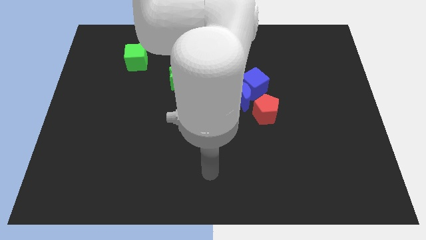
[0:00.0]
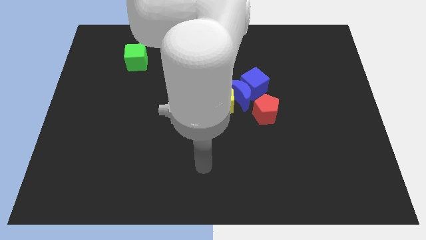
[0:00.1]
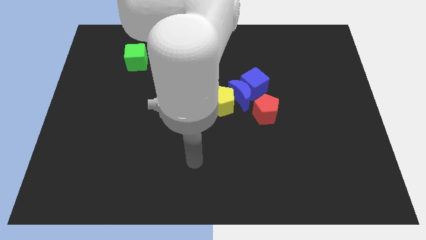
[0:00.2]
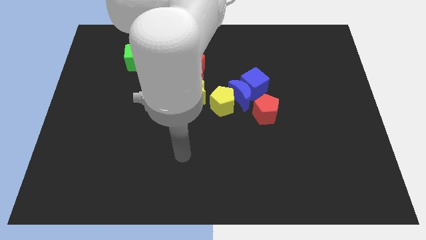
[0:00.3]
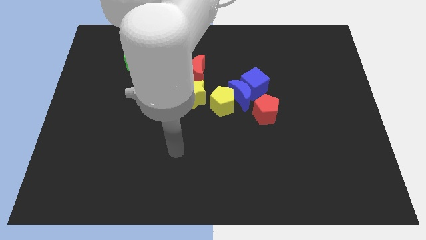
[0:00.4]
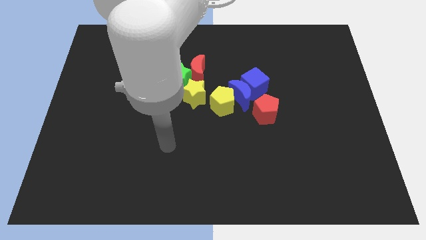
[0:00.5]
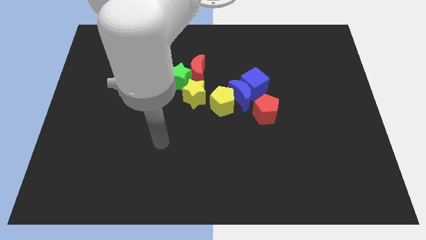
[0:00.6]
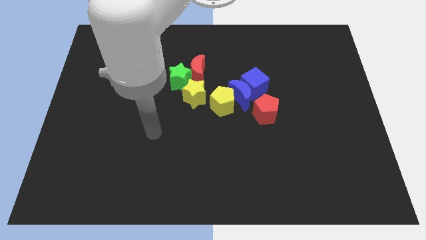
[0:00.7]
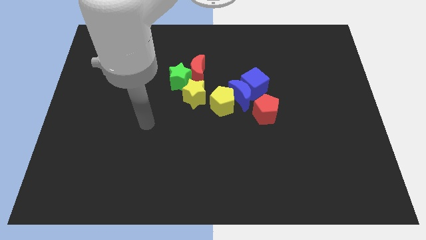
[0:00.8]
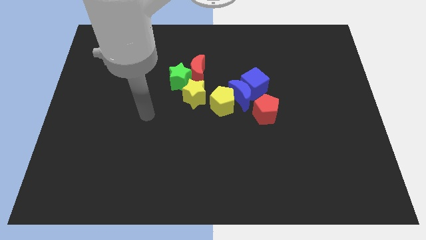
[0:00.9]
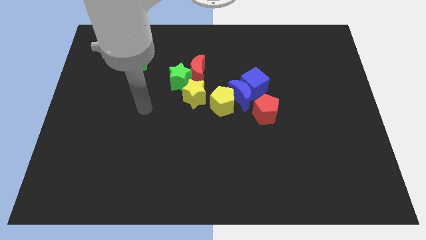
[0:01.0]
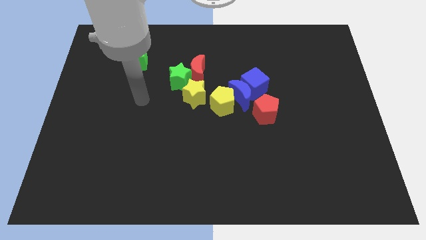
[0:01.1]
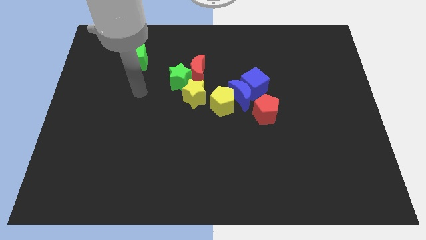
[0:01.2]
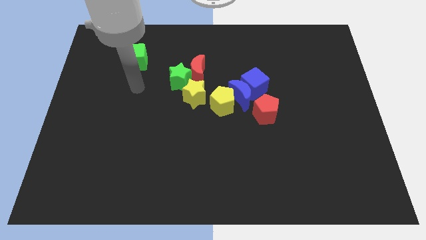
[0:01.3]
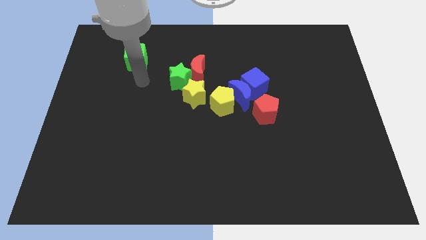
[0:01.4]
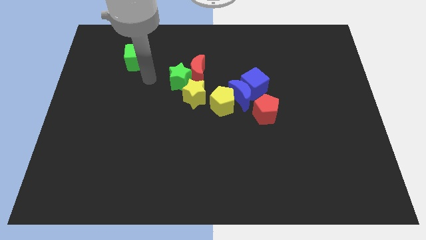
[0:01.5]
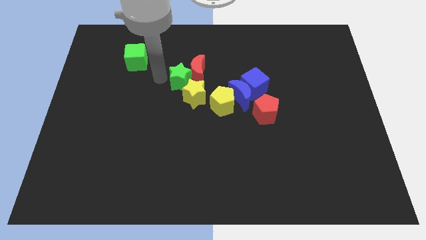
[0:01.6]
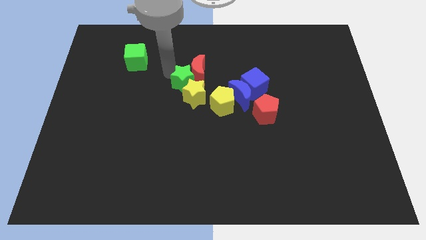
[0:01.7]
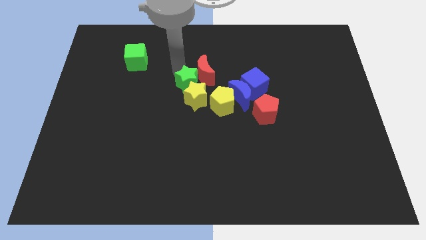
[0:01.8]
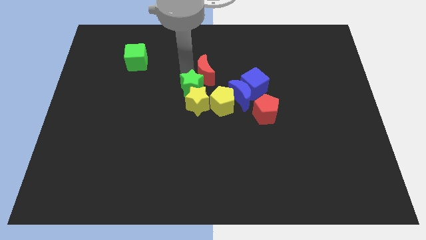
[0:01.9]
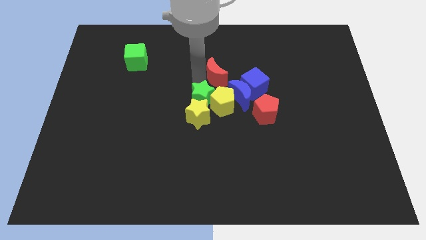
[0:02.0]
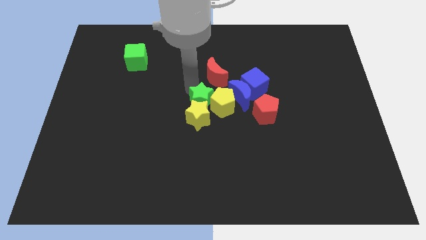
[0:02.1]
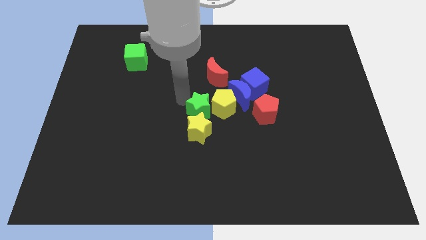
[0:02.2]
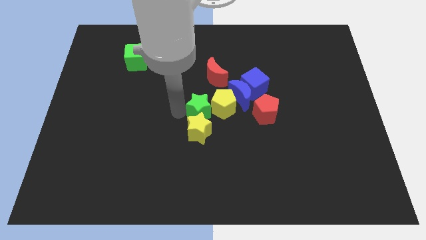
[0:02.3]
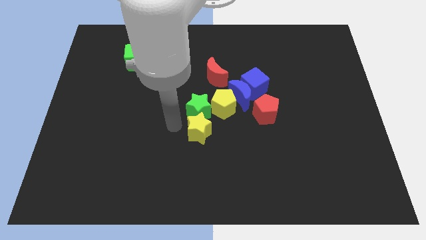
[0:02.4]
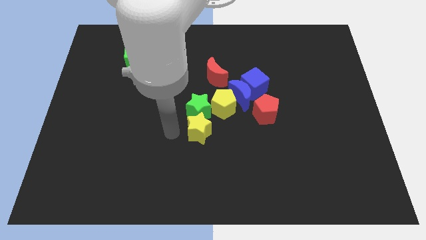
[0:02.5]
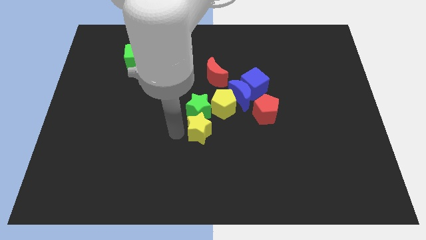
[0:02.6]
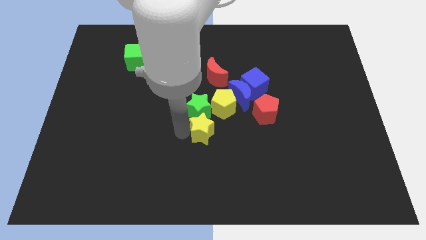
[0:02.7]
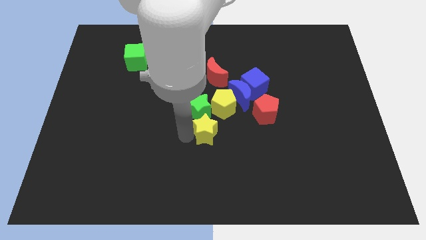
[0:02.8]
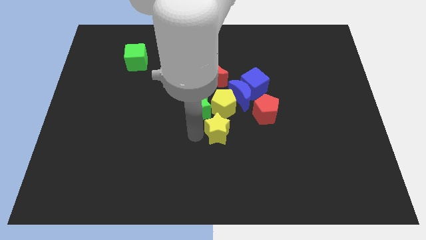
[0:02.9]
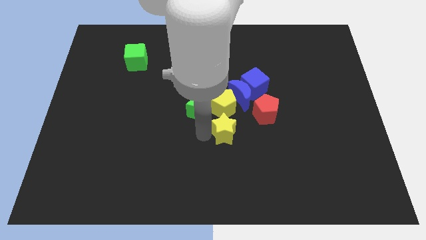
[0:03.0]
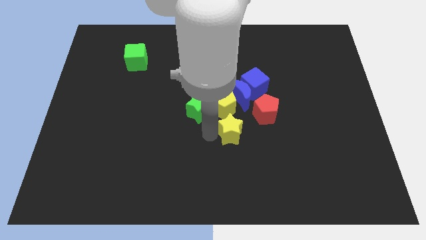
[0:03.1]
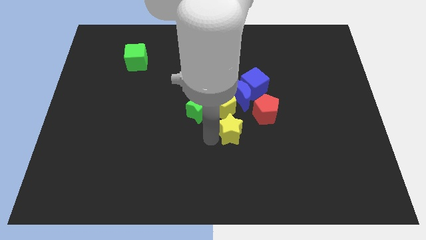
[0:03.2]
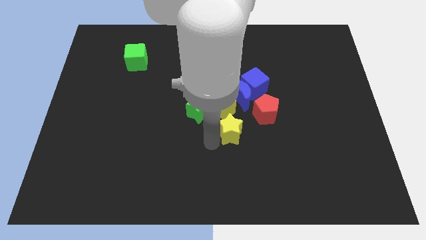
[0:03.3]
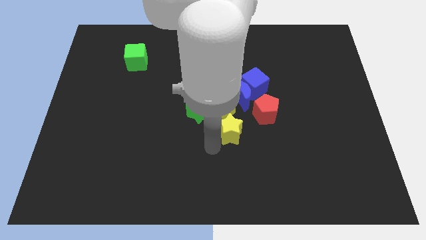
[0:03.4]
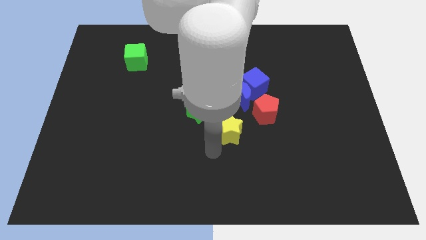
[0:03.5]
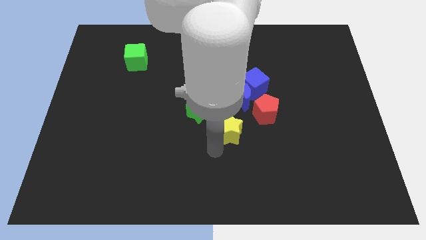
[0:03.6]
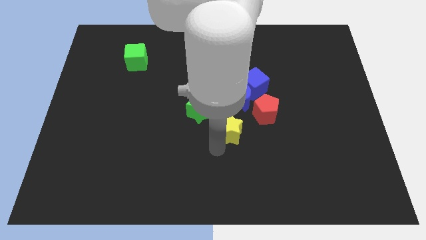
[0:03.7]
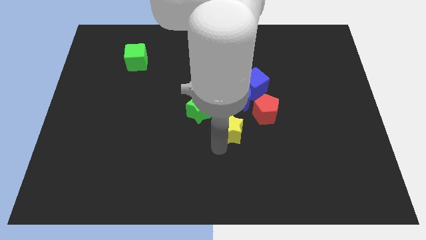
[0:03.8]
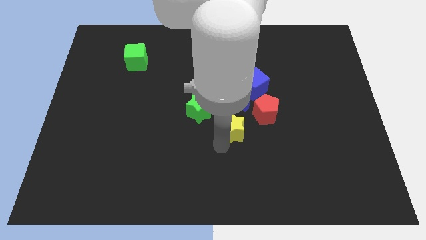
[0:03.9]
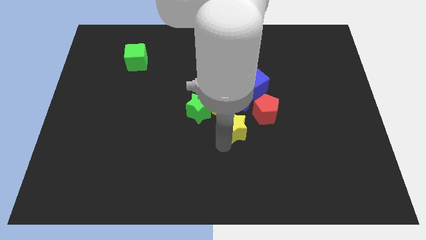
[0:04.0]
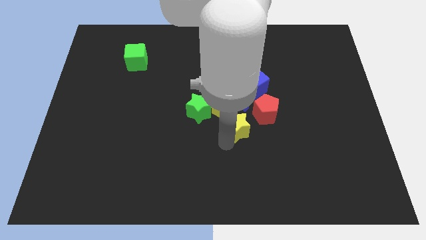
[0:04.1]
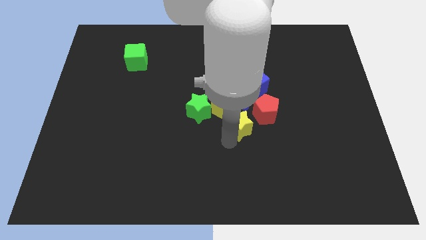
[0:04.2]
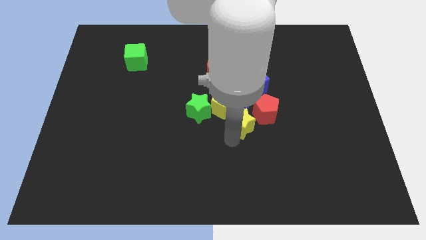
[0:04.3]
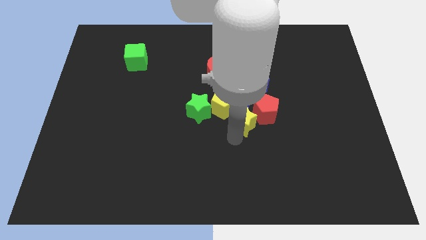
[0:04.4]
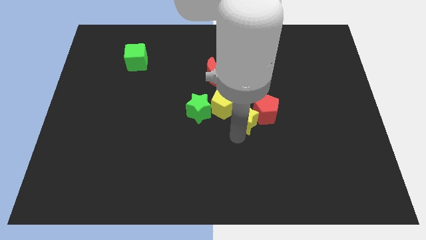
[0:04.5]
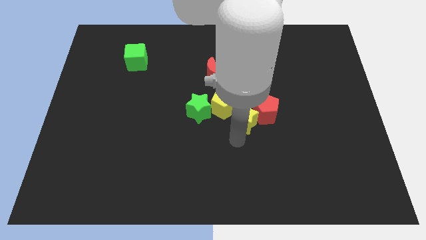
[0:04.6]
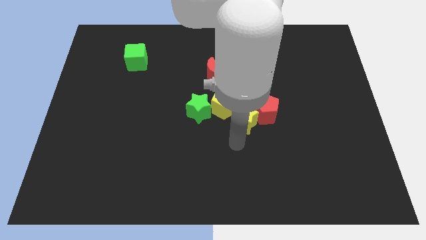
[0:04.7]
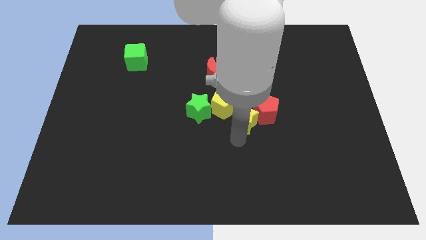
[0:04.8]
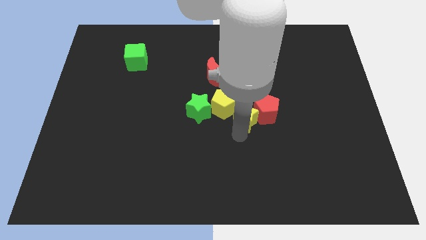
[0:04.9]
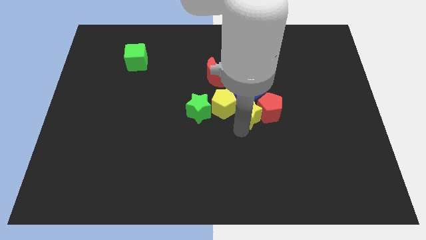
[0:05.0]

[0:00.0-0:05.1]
put the yellow star close to the blue moon

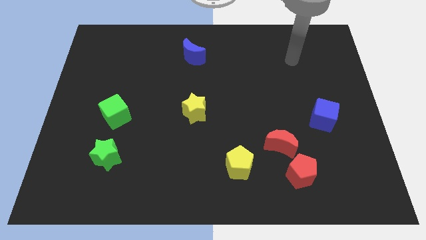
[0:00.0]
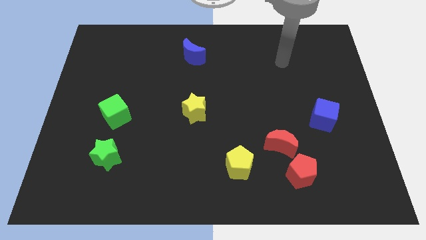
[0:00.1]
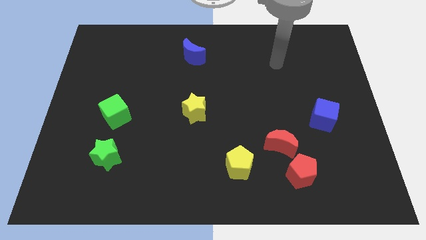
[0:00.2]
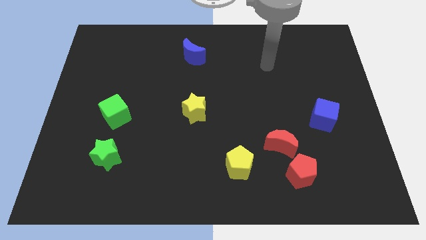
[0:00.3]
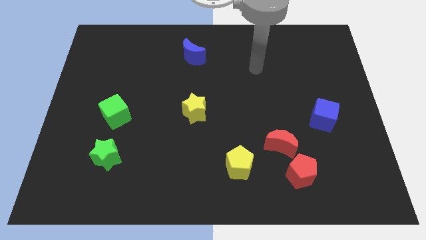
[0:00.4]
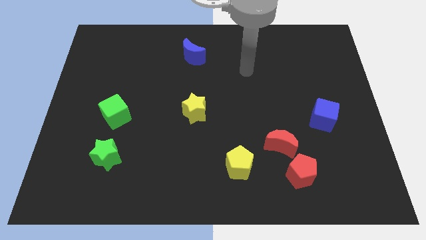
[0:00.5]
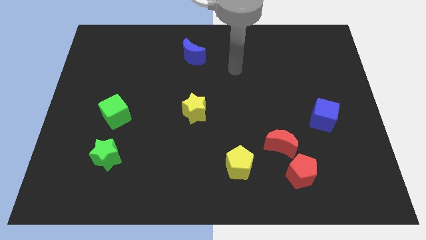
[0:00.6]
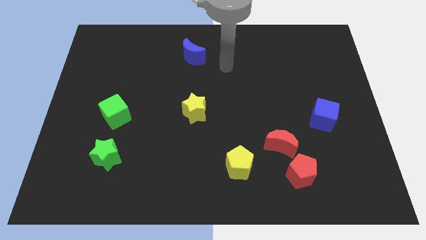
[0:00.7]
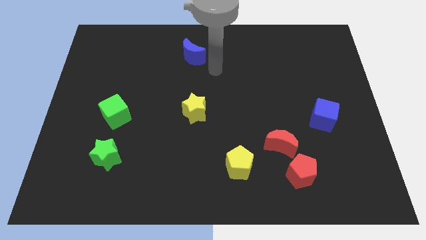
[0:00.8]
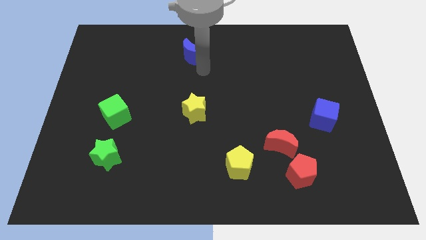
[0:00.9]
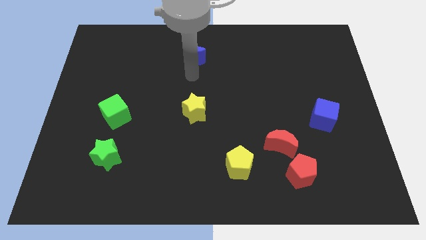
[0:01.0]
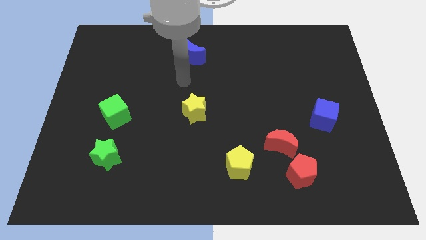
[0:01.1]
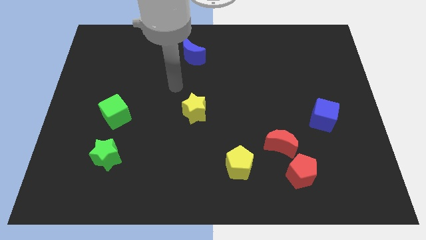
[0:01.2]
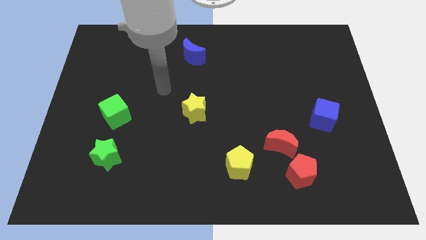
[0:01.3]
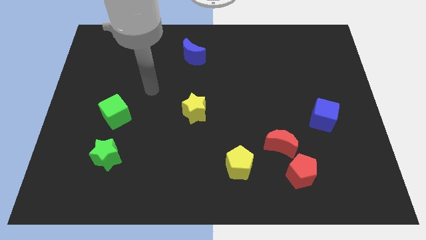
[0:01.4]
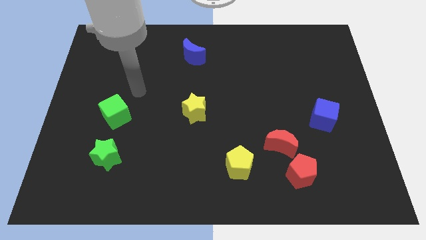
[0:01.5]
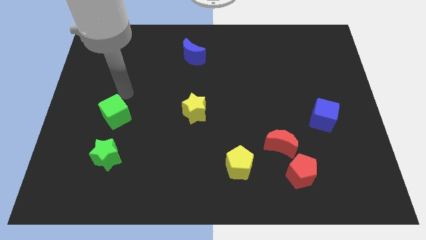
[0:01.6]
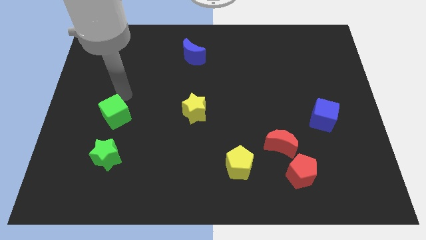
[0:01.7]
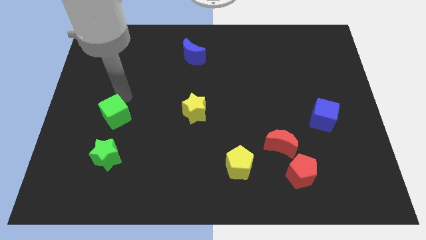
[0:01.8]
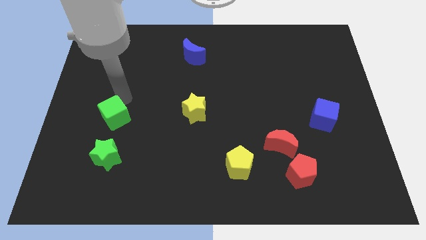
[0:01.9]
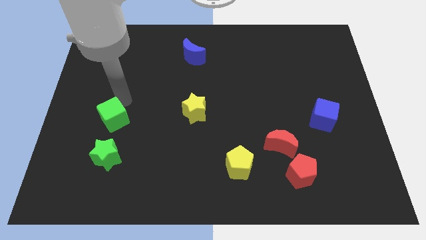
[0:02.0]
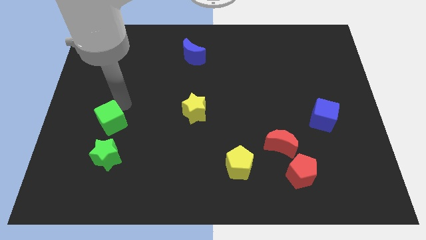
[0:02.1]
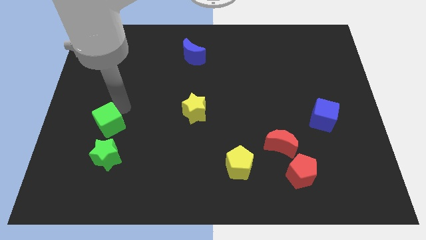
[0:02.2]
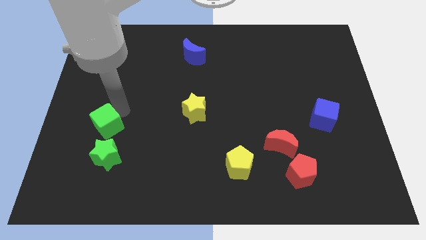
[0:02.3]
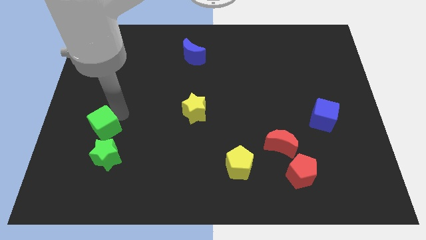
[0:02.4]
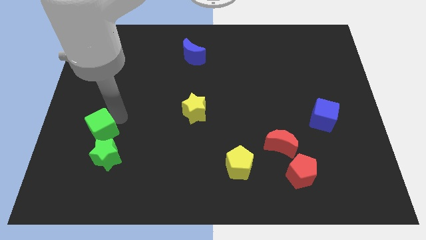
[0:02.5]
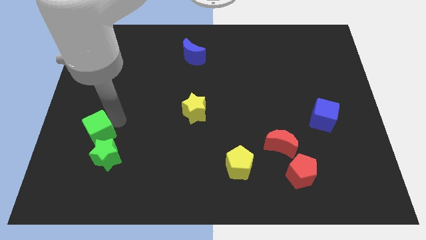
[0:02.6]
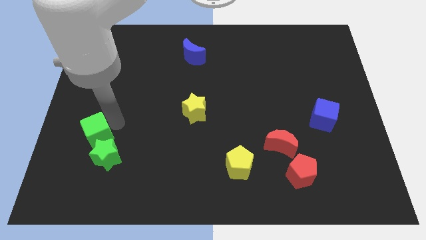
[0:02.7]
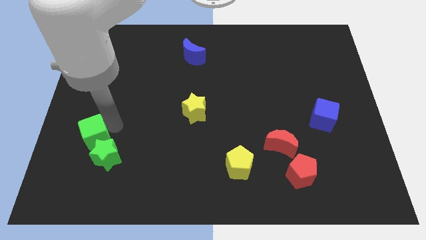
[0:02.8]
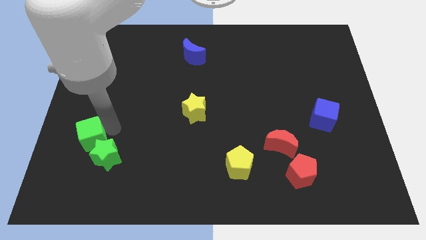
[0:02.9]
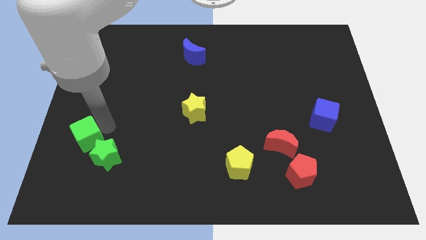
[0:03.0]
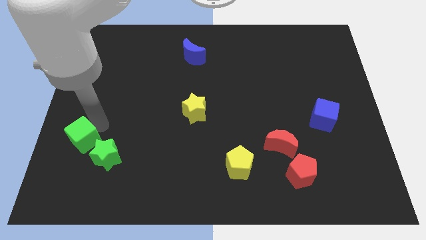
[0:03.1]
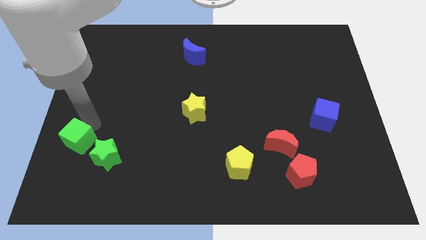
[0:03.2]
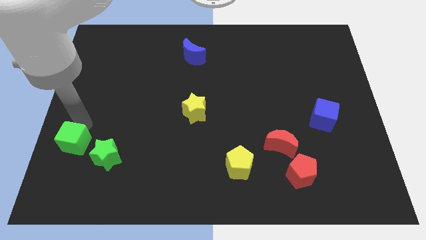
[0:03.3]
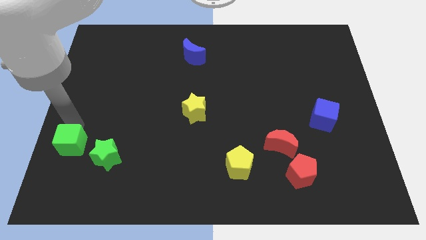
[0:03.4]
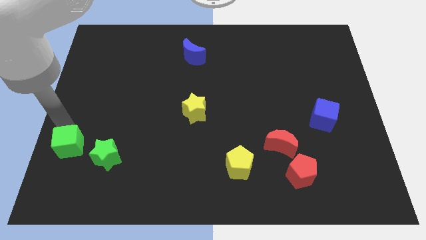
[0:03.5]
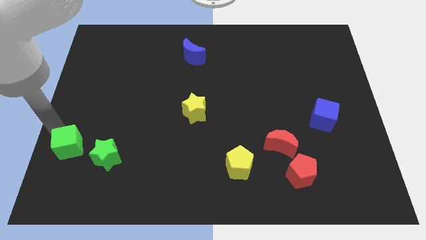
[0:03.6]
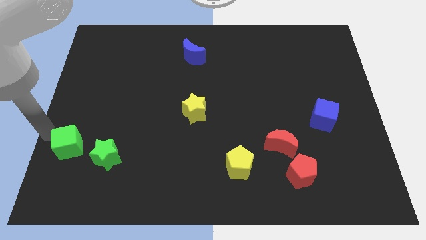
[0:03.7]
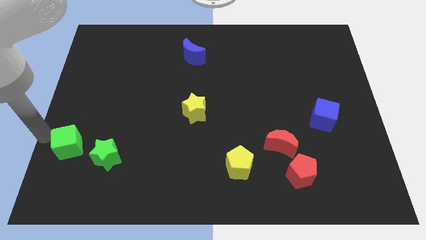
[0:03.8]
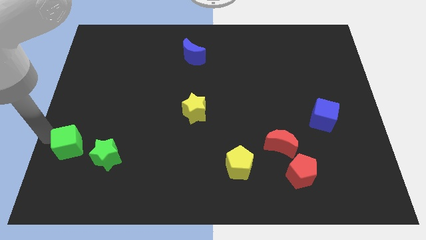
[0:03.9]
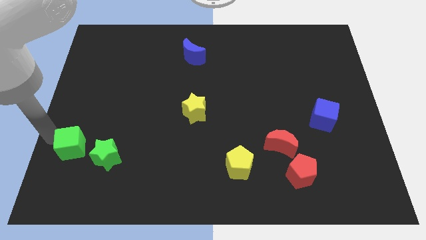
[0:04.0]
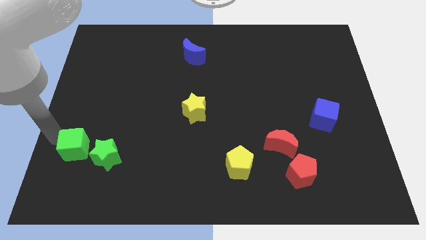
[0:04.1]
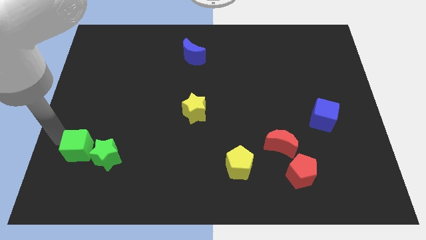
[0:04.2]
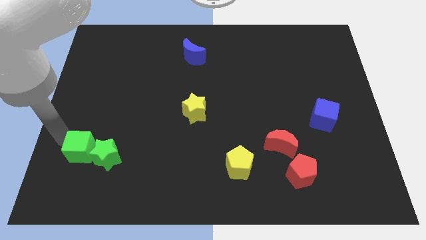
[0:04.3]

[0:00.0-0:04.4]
move the green cube towards the green star
